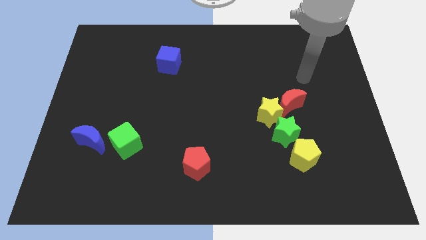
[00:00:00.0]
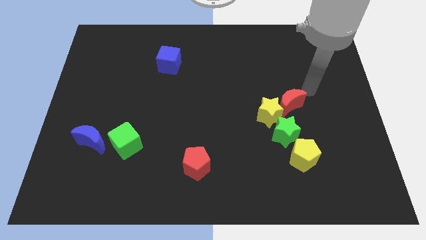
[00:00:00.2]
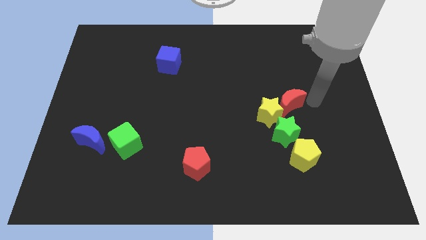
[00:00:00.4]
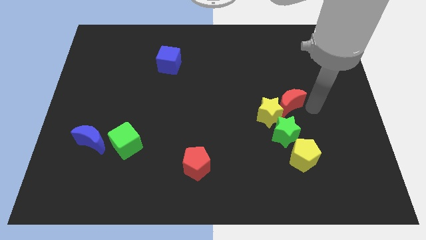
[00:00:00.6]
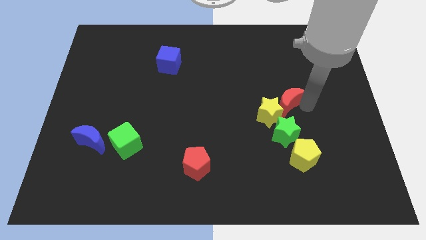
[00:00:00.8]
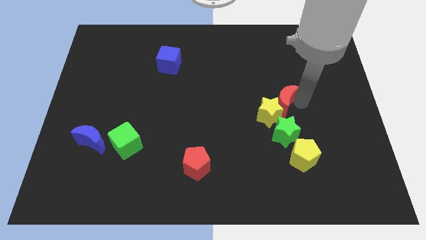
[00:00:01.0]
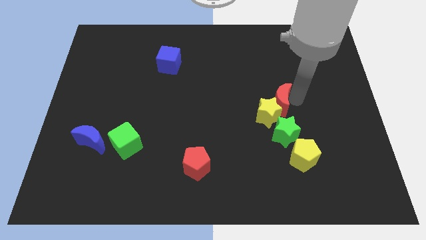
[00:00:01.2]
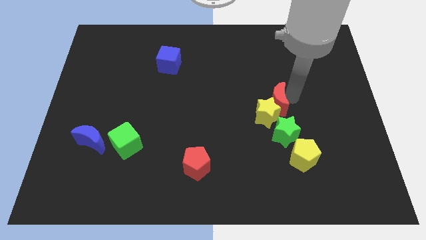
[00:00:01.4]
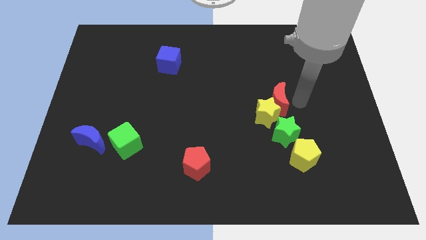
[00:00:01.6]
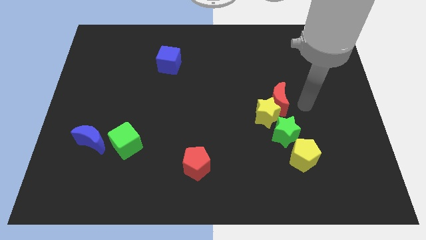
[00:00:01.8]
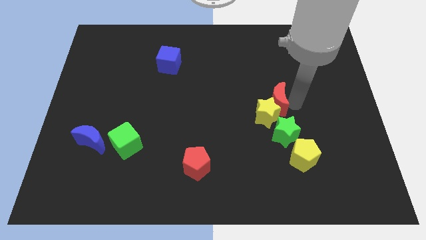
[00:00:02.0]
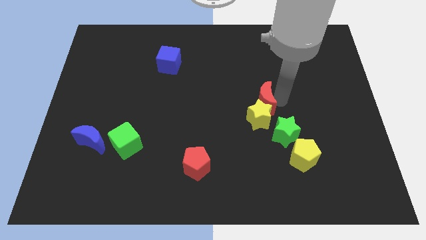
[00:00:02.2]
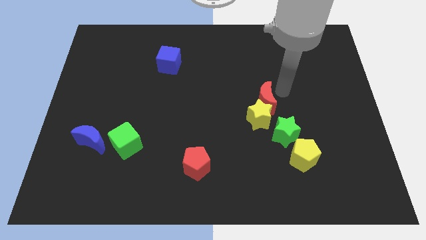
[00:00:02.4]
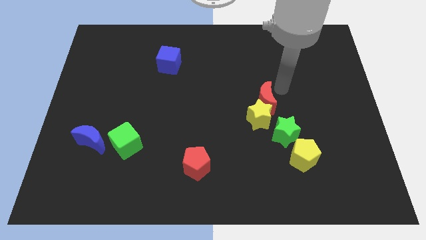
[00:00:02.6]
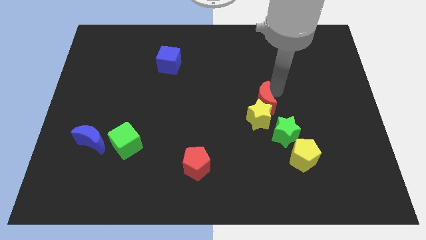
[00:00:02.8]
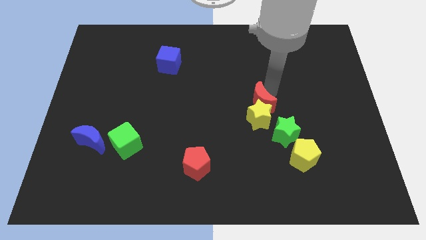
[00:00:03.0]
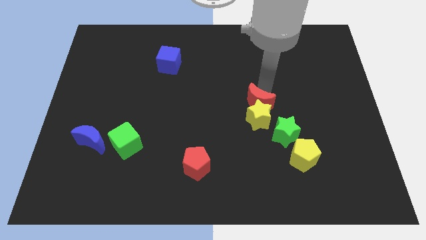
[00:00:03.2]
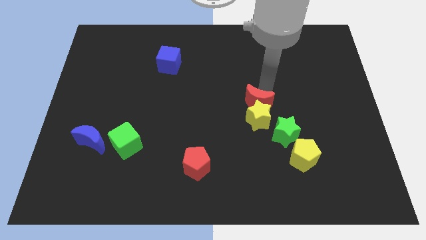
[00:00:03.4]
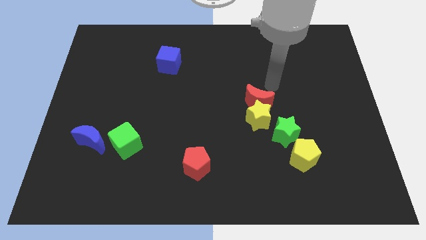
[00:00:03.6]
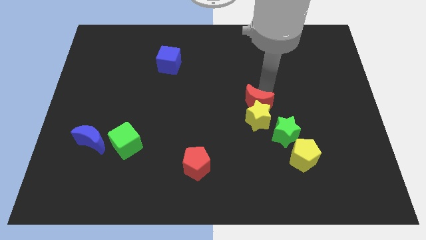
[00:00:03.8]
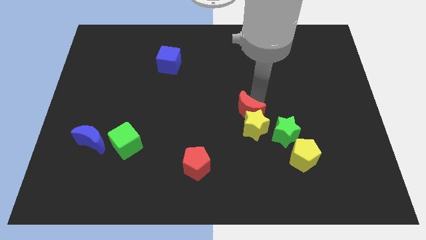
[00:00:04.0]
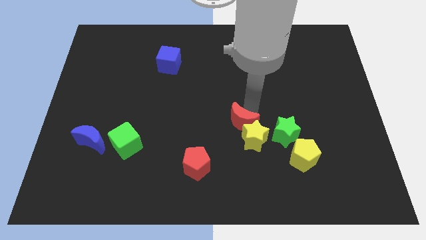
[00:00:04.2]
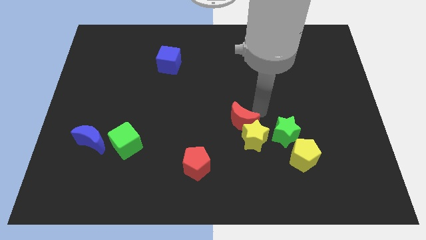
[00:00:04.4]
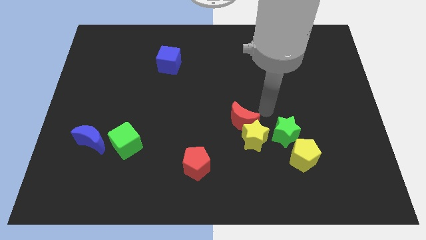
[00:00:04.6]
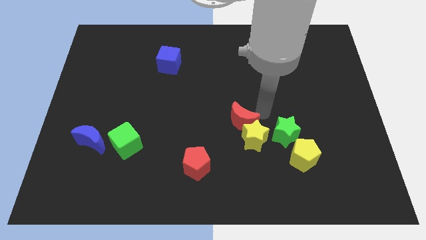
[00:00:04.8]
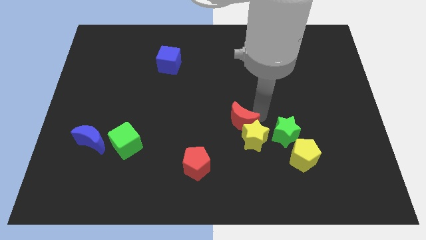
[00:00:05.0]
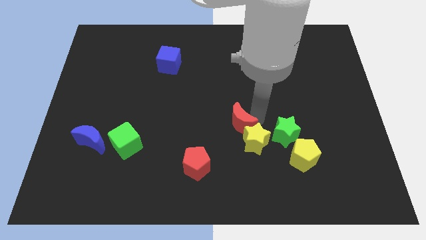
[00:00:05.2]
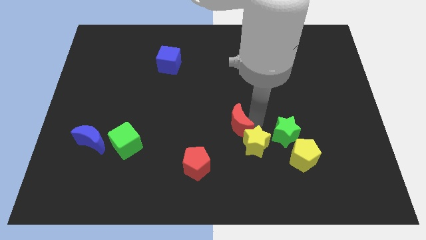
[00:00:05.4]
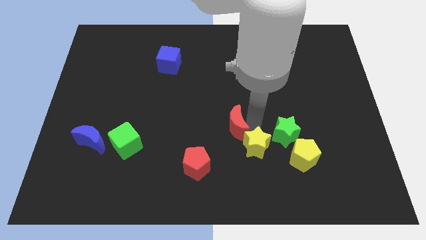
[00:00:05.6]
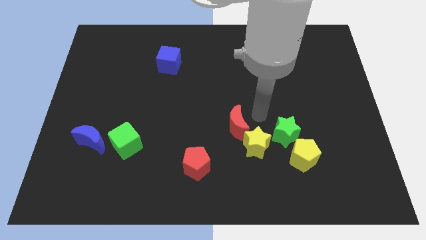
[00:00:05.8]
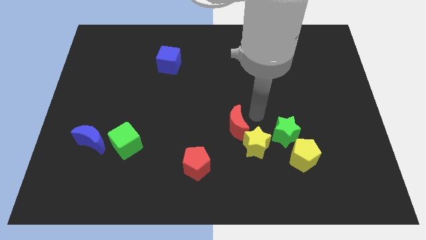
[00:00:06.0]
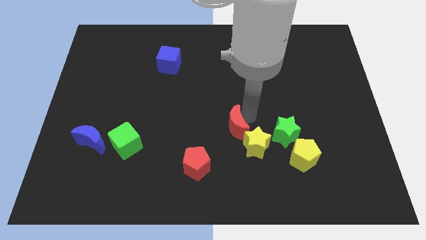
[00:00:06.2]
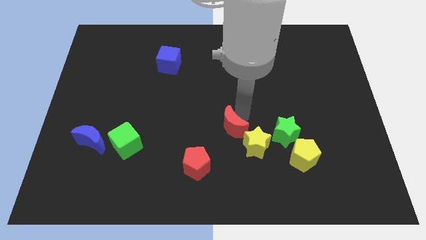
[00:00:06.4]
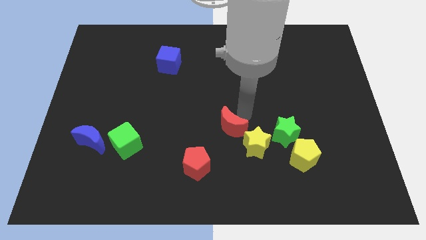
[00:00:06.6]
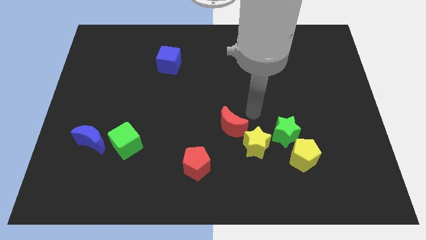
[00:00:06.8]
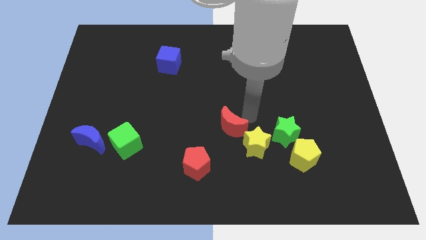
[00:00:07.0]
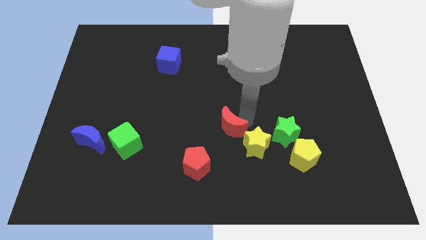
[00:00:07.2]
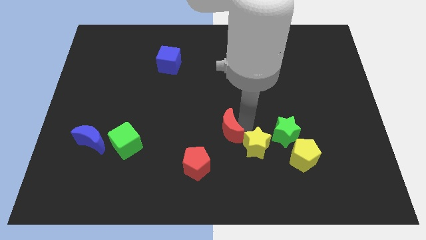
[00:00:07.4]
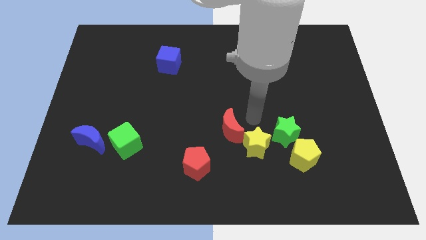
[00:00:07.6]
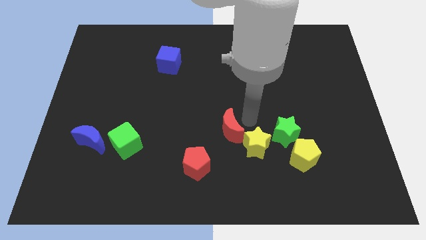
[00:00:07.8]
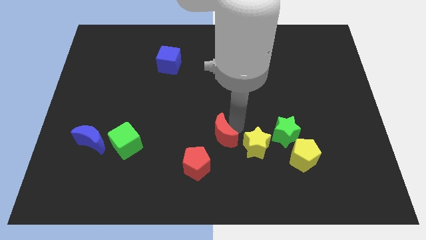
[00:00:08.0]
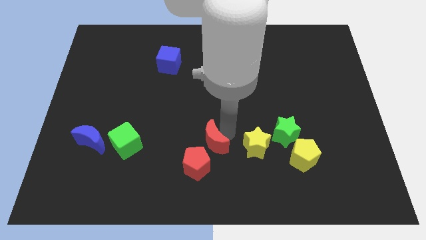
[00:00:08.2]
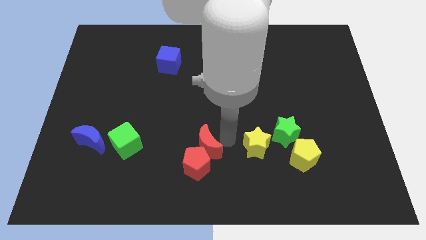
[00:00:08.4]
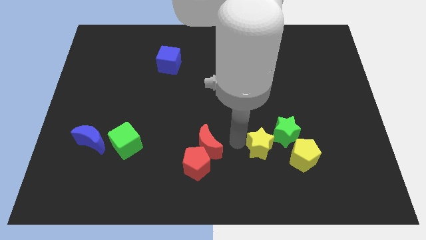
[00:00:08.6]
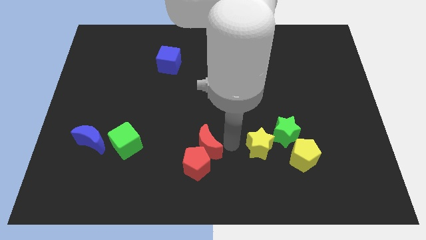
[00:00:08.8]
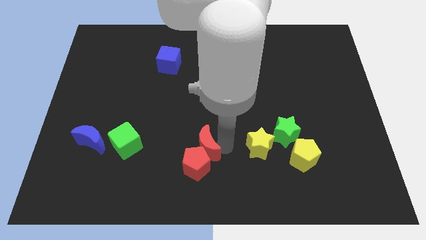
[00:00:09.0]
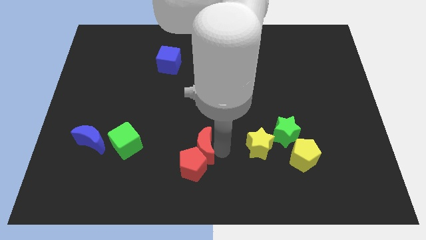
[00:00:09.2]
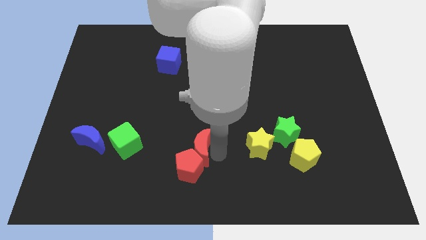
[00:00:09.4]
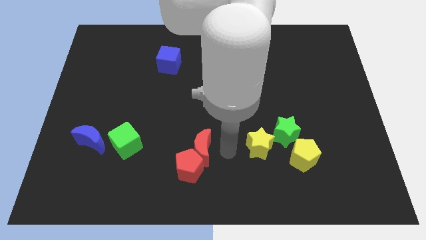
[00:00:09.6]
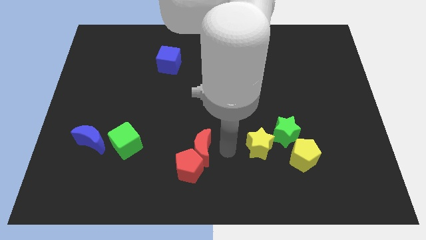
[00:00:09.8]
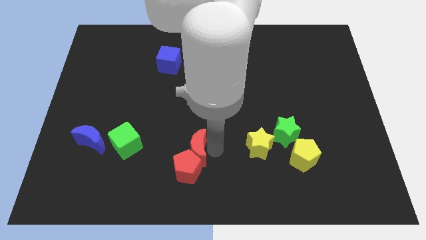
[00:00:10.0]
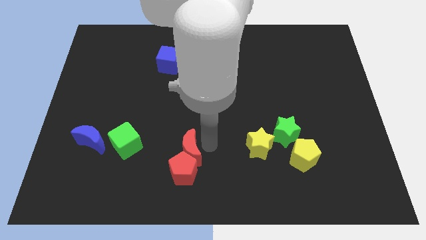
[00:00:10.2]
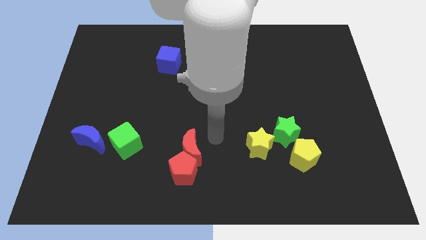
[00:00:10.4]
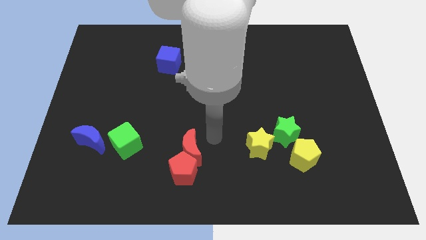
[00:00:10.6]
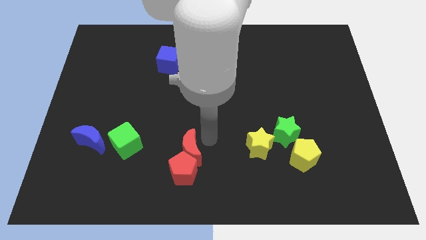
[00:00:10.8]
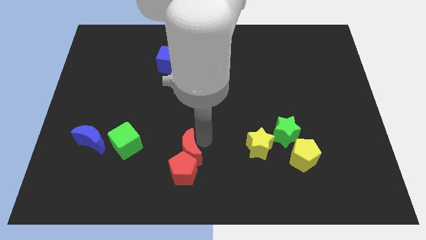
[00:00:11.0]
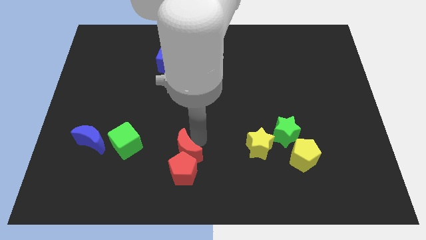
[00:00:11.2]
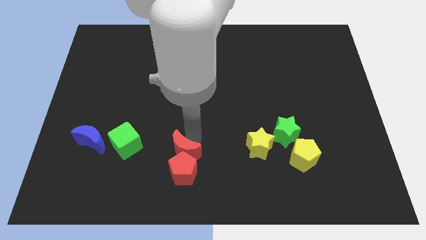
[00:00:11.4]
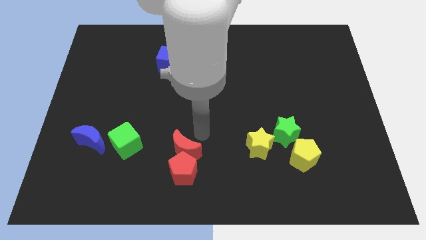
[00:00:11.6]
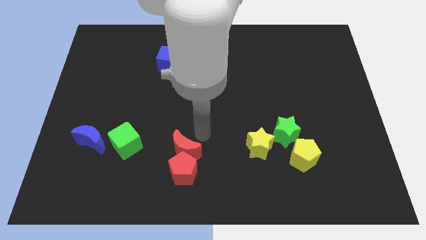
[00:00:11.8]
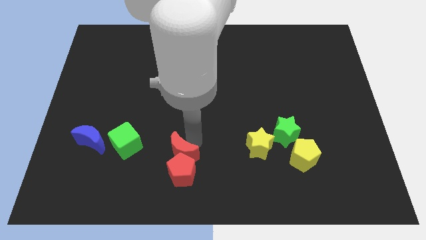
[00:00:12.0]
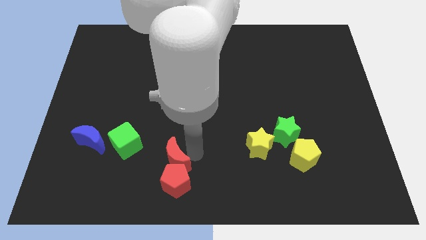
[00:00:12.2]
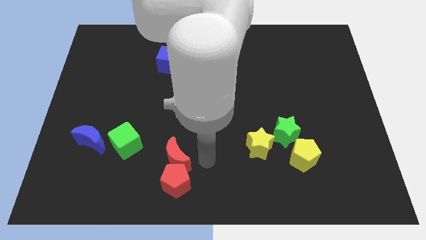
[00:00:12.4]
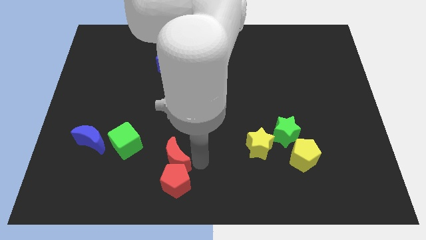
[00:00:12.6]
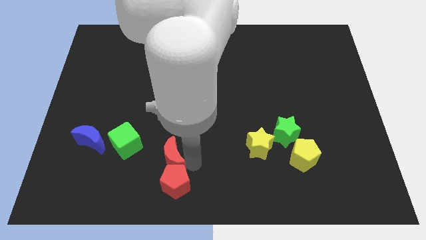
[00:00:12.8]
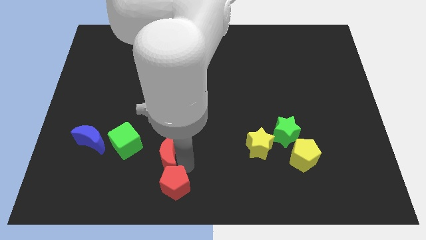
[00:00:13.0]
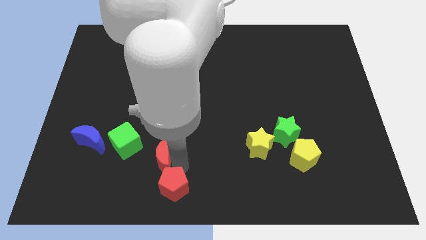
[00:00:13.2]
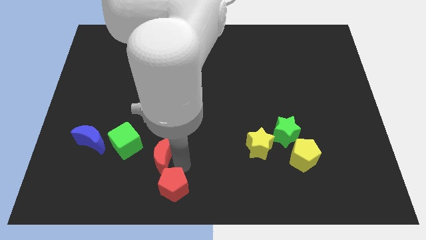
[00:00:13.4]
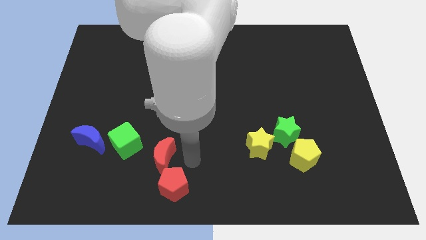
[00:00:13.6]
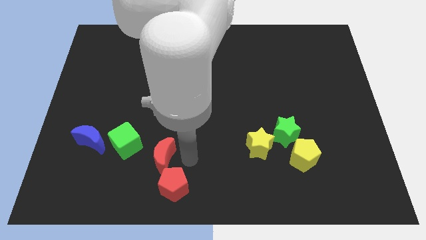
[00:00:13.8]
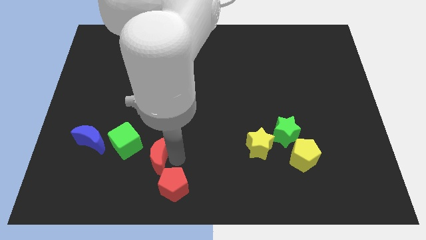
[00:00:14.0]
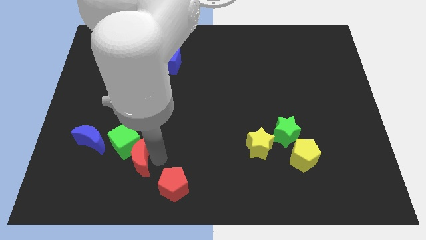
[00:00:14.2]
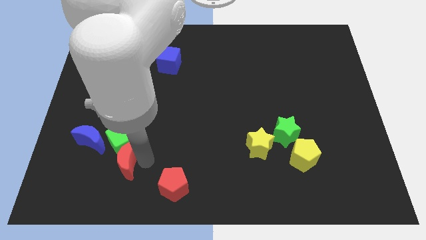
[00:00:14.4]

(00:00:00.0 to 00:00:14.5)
move the red moon to the bottom left side of the green cube

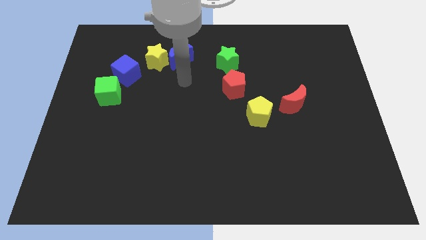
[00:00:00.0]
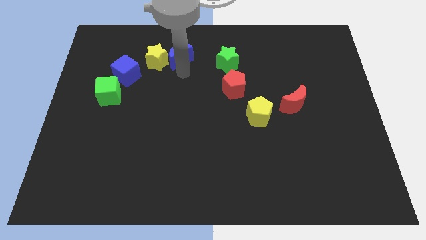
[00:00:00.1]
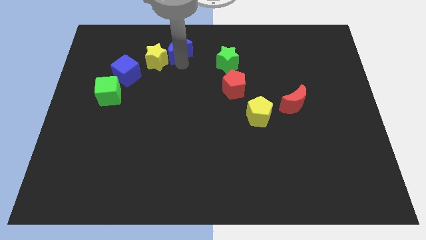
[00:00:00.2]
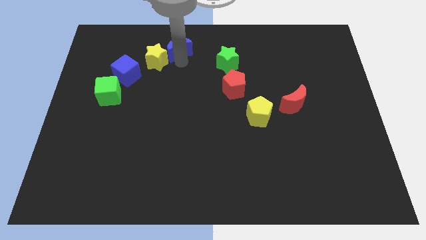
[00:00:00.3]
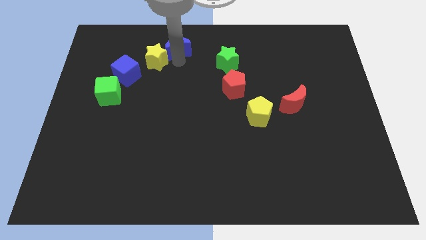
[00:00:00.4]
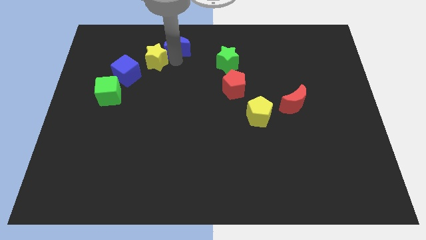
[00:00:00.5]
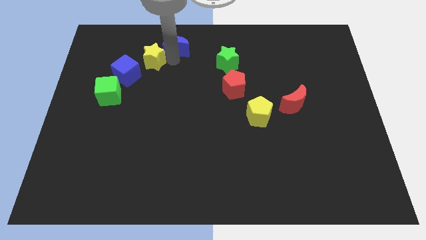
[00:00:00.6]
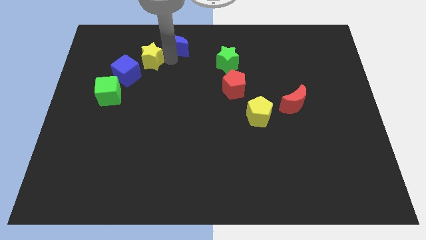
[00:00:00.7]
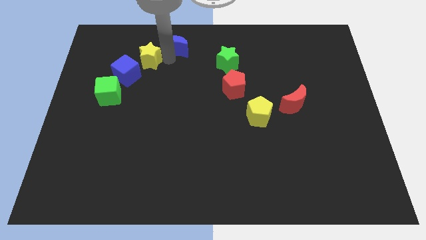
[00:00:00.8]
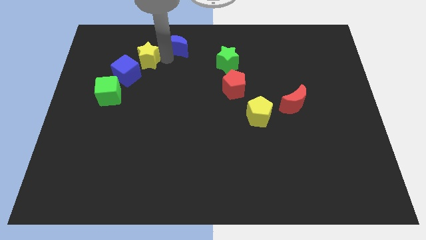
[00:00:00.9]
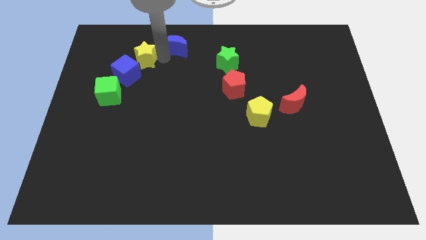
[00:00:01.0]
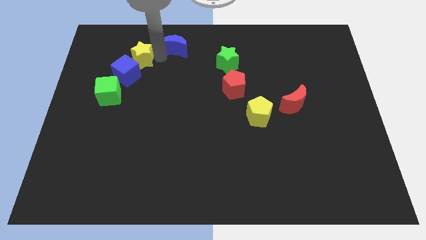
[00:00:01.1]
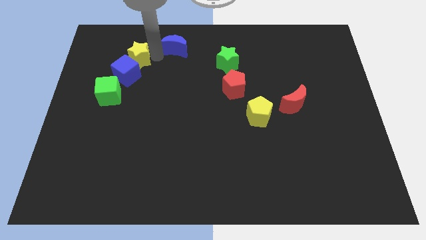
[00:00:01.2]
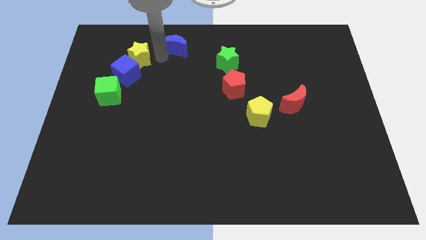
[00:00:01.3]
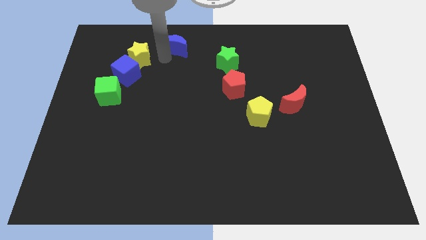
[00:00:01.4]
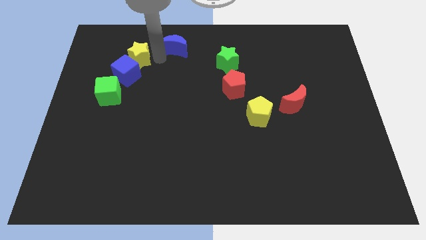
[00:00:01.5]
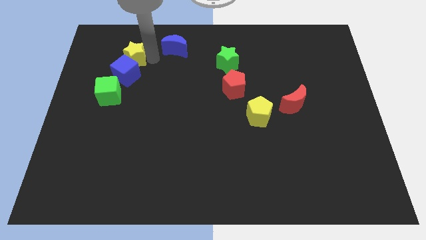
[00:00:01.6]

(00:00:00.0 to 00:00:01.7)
slide the yellow star diagonally up and to the left of the blue cube
